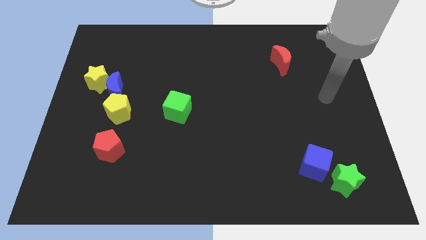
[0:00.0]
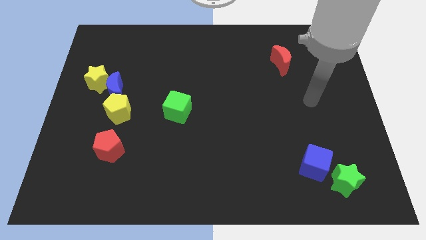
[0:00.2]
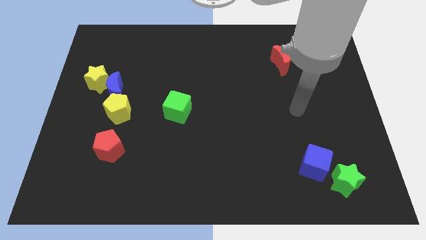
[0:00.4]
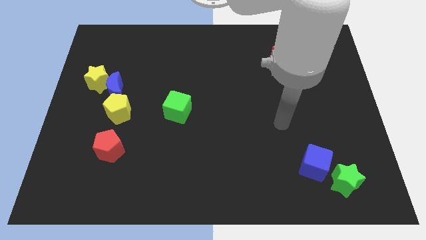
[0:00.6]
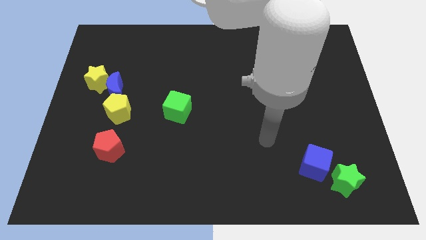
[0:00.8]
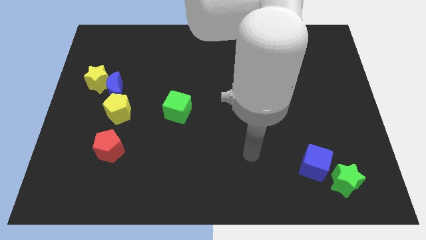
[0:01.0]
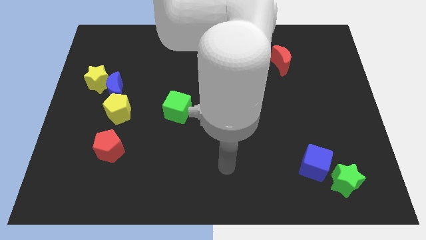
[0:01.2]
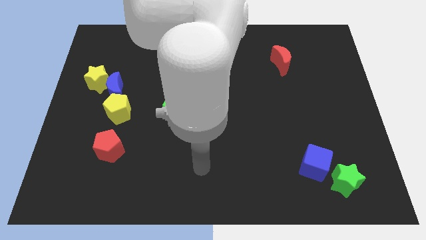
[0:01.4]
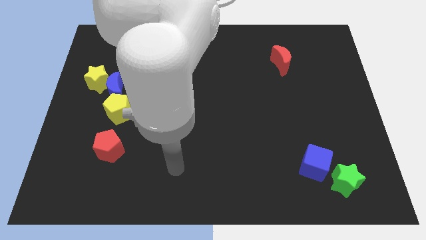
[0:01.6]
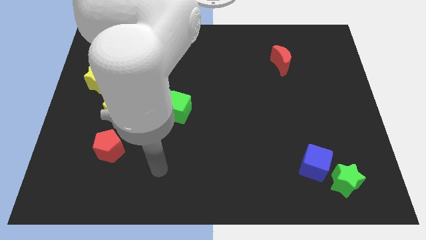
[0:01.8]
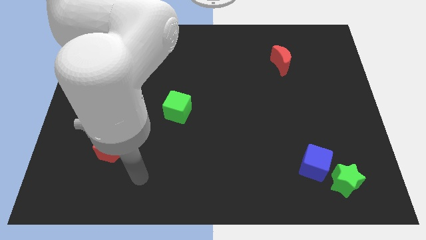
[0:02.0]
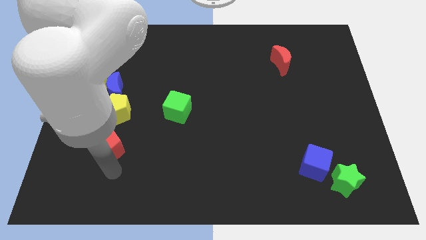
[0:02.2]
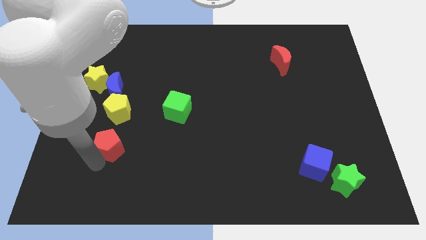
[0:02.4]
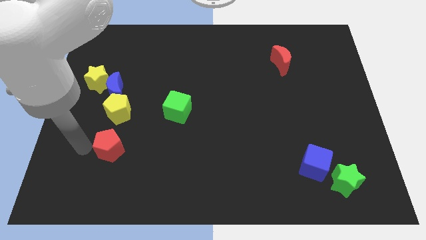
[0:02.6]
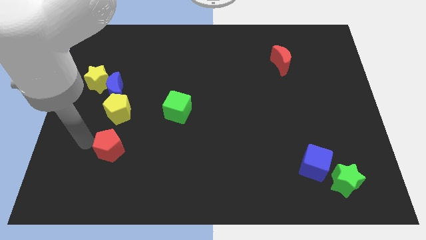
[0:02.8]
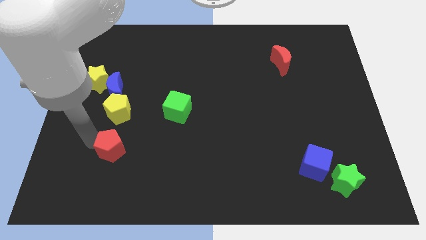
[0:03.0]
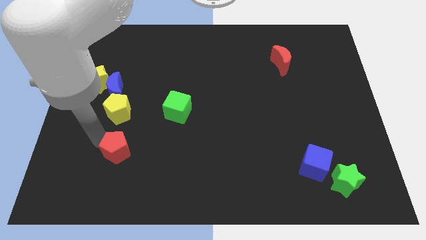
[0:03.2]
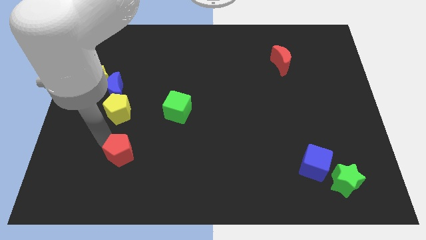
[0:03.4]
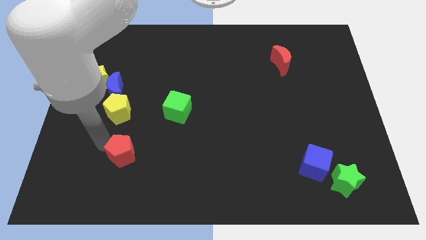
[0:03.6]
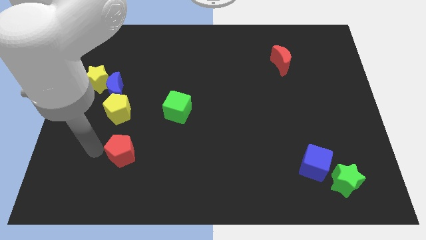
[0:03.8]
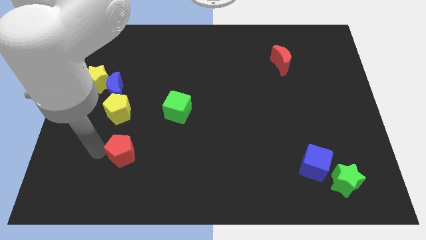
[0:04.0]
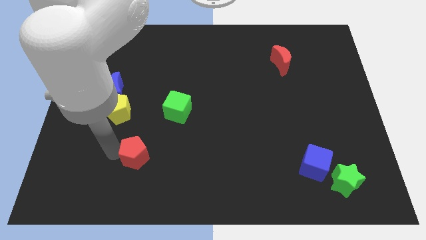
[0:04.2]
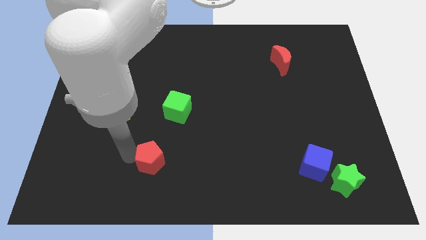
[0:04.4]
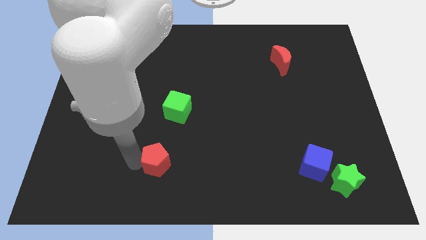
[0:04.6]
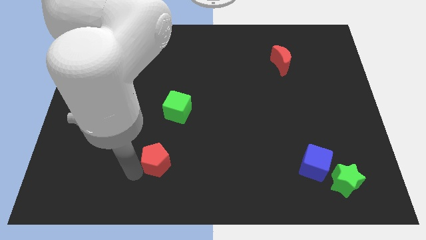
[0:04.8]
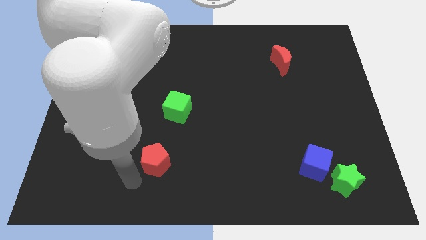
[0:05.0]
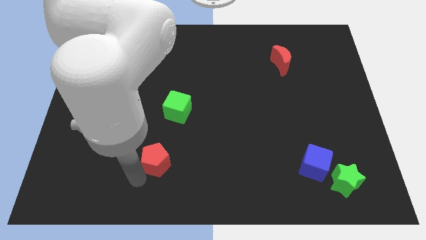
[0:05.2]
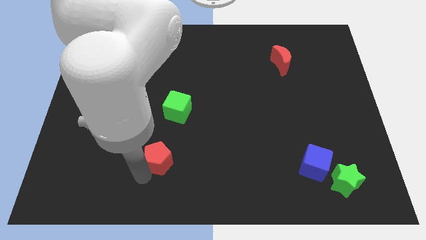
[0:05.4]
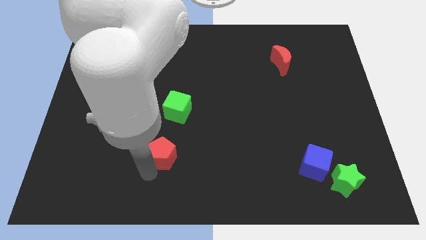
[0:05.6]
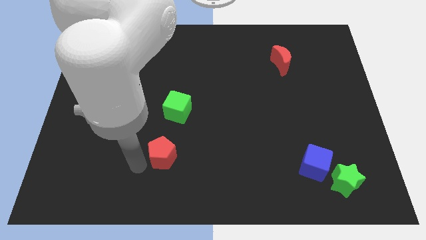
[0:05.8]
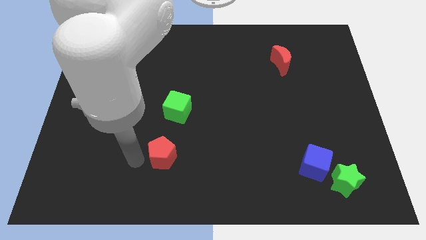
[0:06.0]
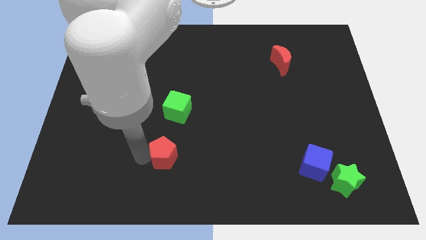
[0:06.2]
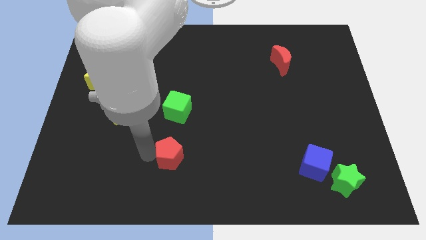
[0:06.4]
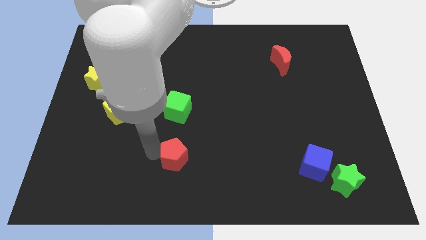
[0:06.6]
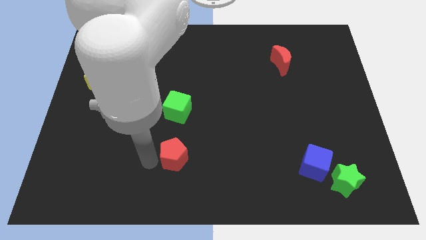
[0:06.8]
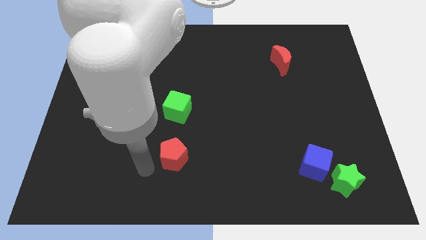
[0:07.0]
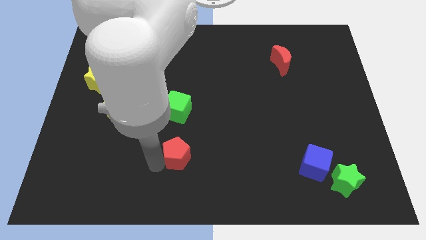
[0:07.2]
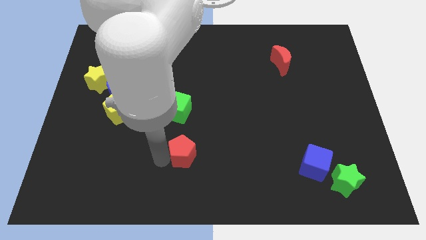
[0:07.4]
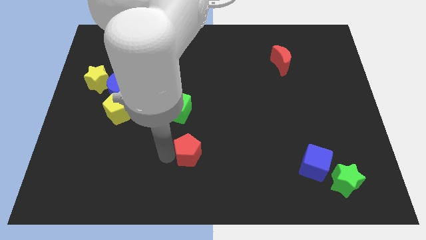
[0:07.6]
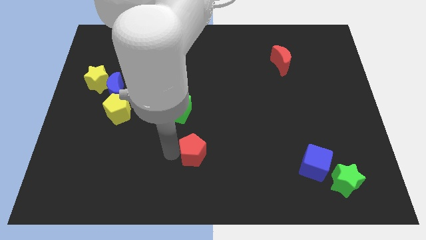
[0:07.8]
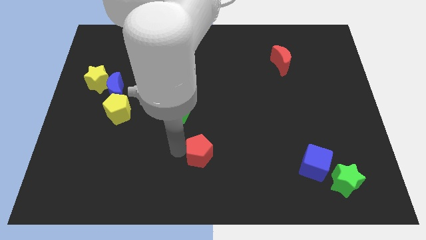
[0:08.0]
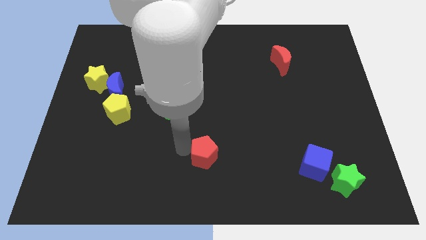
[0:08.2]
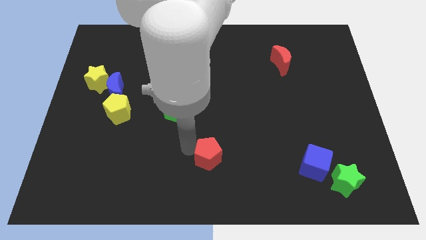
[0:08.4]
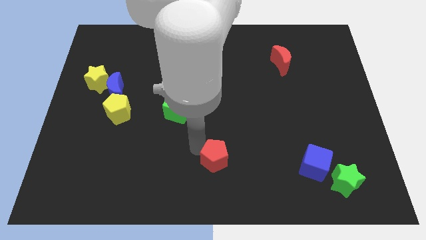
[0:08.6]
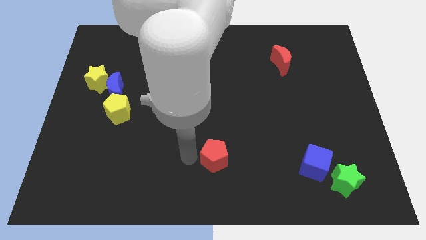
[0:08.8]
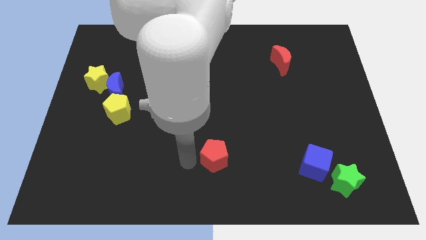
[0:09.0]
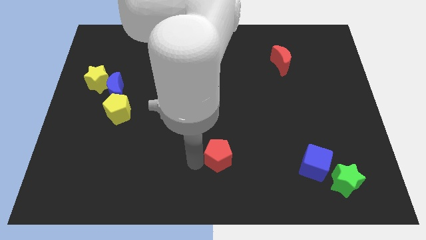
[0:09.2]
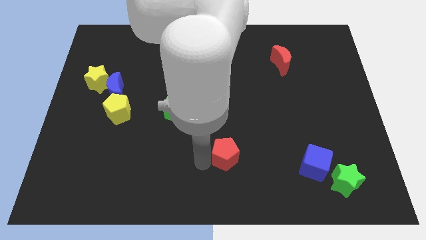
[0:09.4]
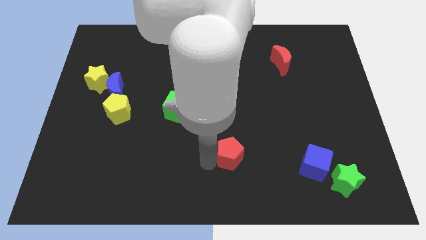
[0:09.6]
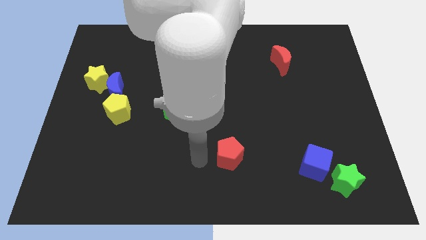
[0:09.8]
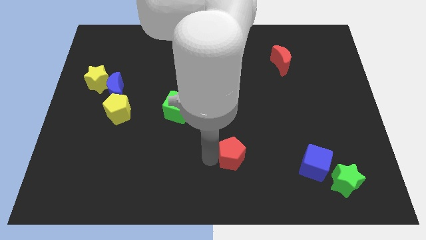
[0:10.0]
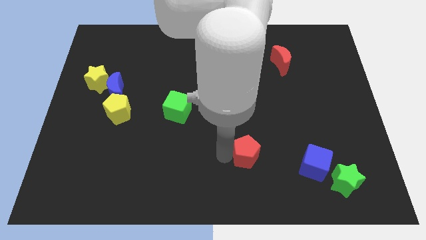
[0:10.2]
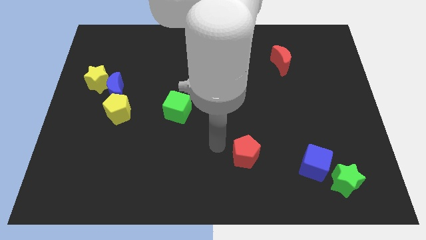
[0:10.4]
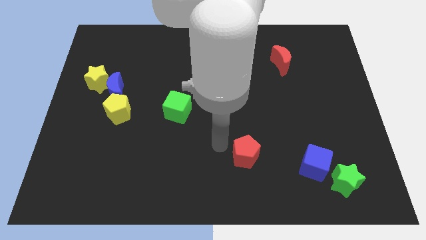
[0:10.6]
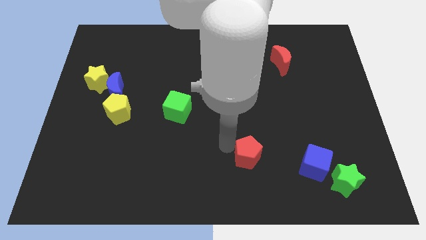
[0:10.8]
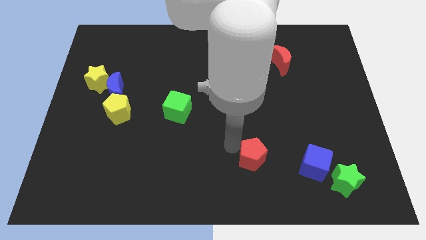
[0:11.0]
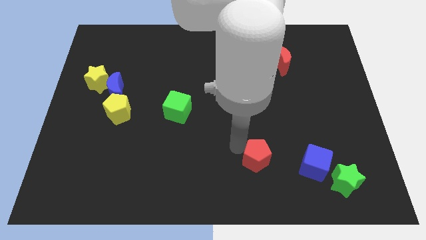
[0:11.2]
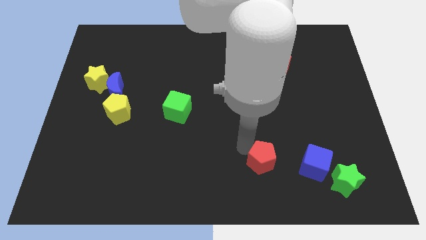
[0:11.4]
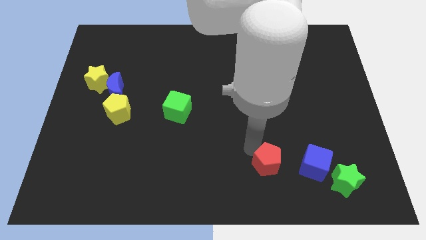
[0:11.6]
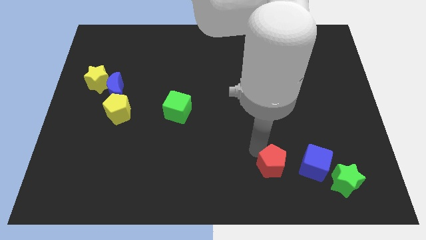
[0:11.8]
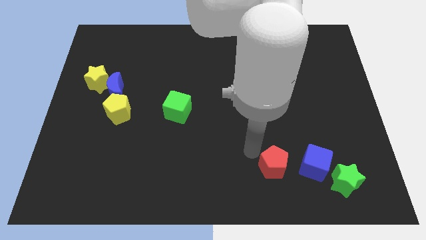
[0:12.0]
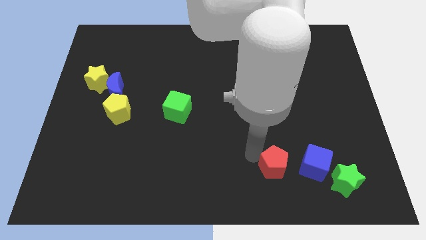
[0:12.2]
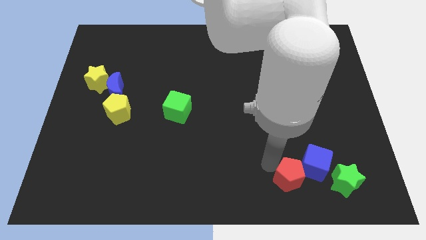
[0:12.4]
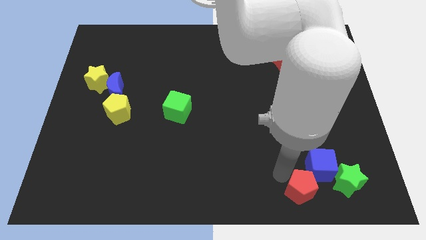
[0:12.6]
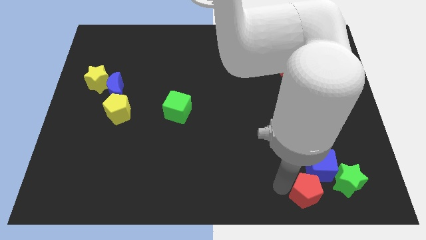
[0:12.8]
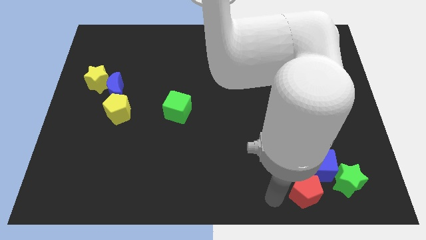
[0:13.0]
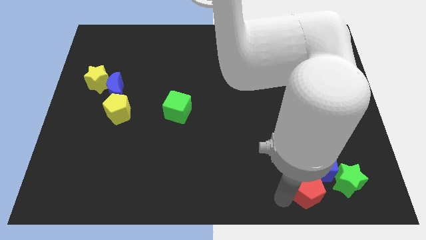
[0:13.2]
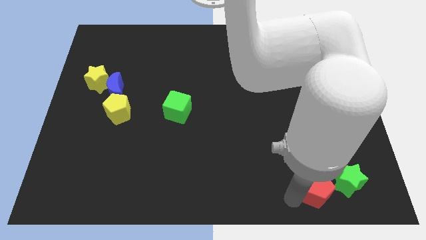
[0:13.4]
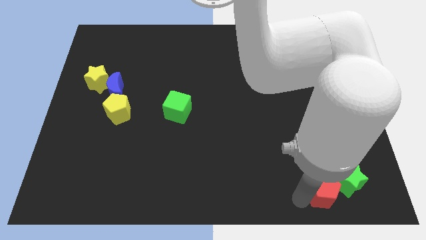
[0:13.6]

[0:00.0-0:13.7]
push the red pentagon next to the green star
